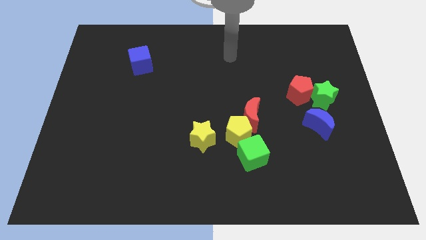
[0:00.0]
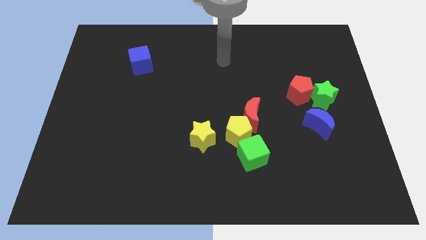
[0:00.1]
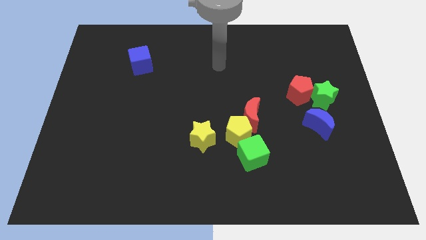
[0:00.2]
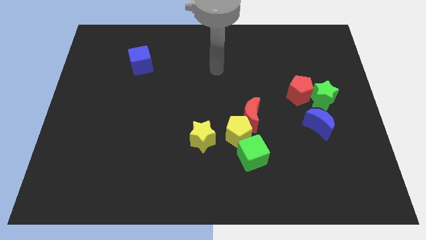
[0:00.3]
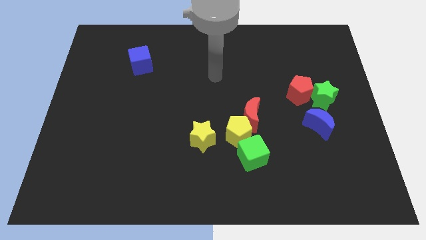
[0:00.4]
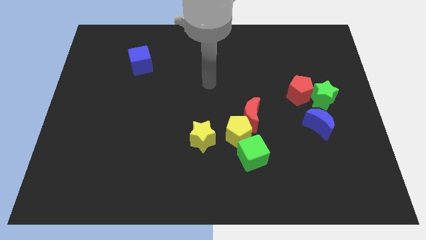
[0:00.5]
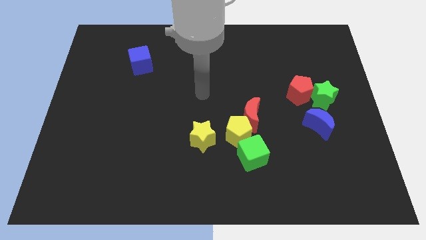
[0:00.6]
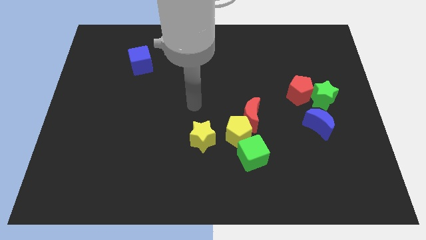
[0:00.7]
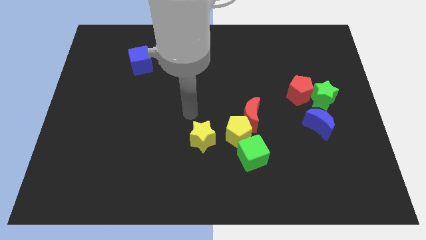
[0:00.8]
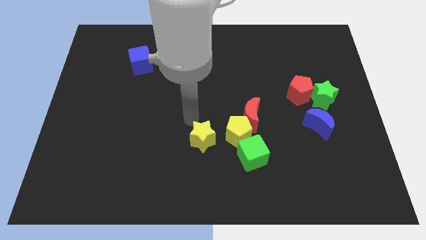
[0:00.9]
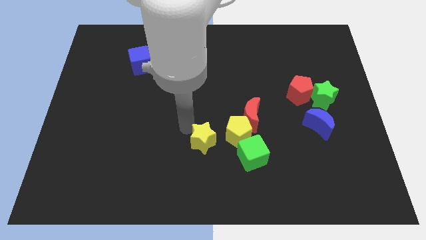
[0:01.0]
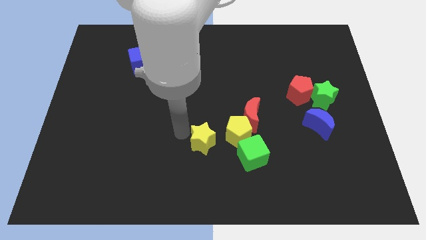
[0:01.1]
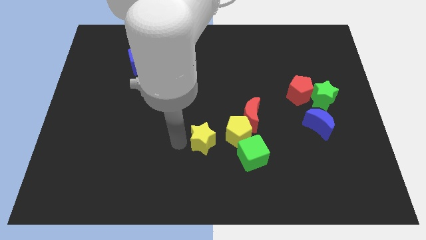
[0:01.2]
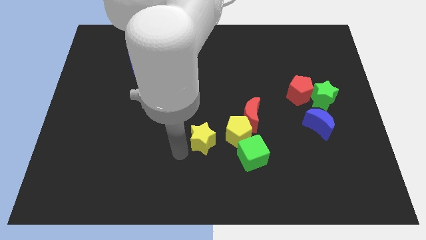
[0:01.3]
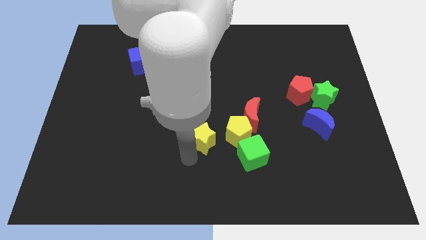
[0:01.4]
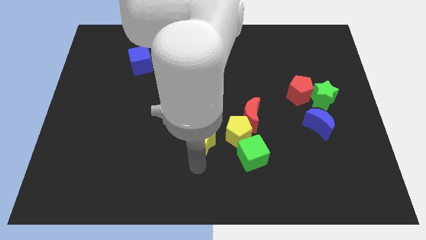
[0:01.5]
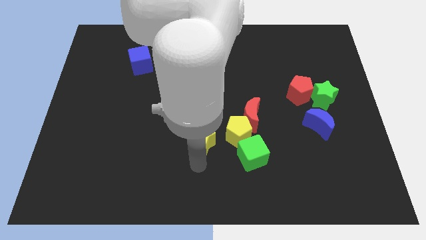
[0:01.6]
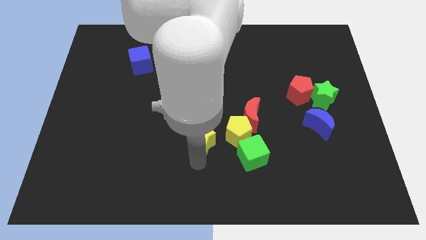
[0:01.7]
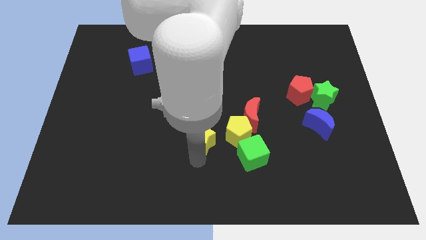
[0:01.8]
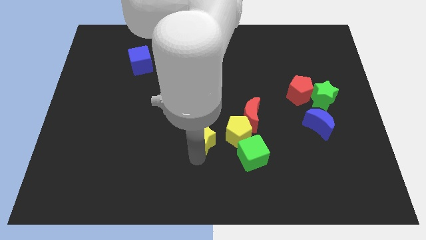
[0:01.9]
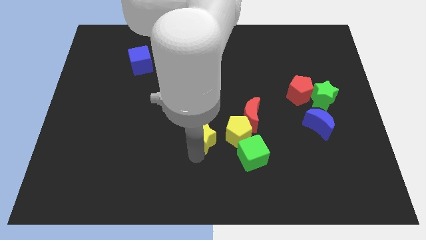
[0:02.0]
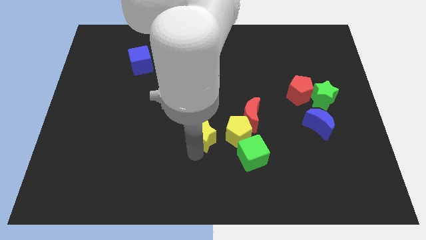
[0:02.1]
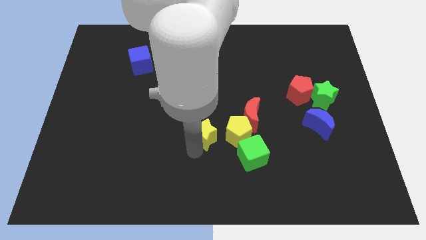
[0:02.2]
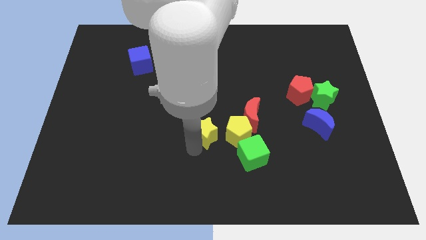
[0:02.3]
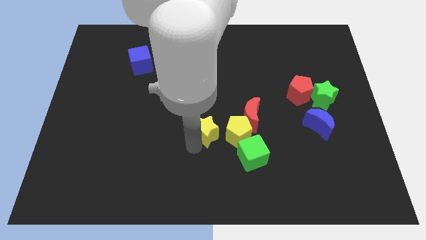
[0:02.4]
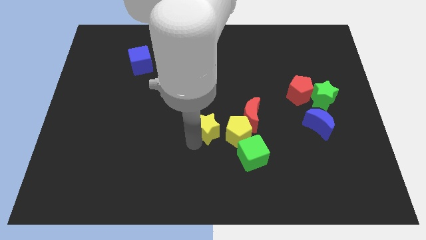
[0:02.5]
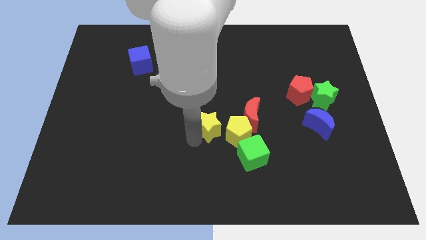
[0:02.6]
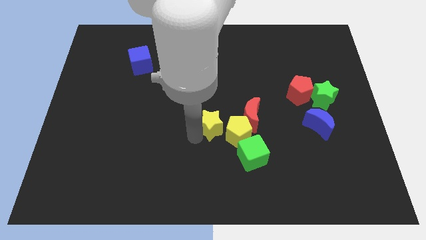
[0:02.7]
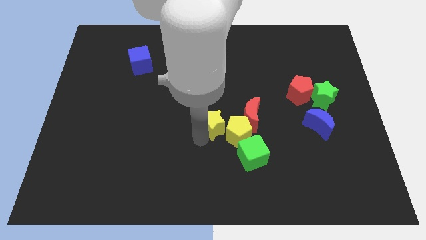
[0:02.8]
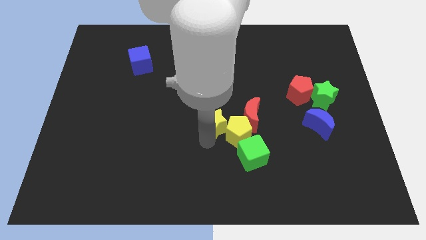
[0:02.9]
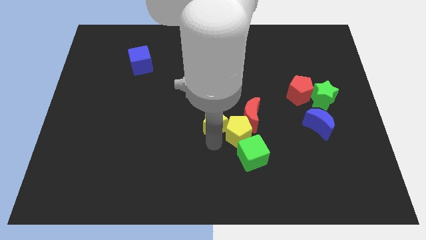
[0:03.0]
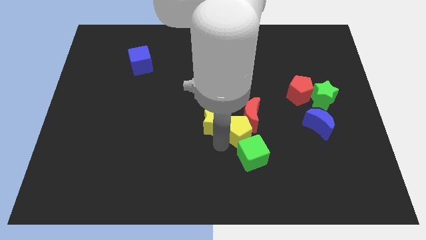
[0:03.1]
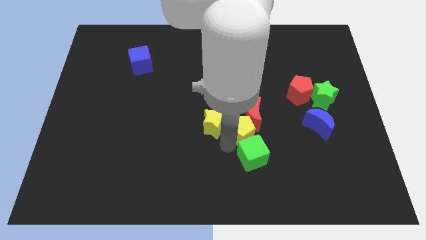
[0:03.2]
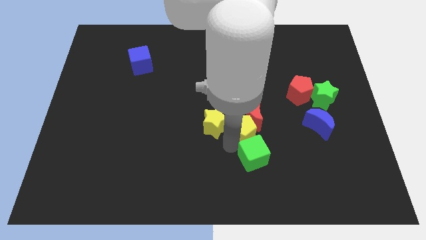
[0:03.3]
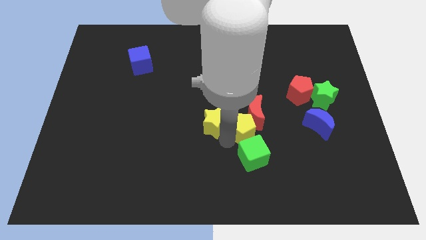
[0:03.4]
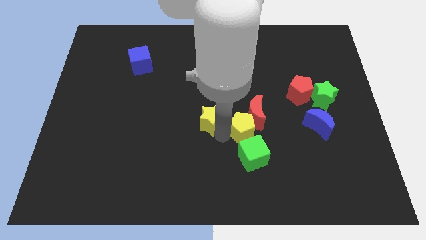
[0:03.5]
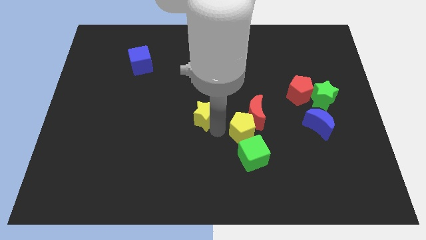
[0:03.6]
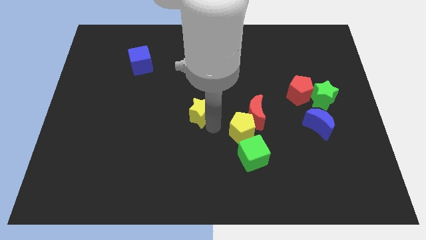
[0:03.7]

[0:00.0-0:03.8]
slightly push the yellow star upwards

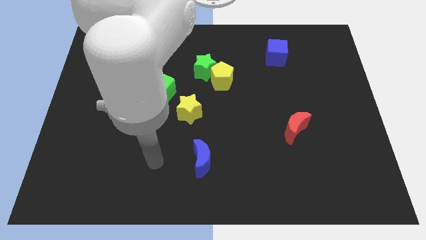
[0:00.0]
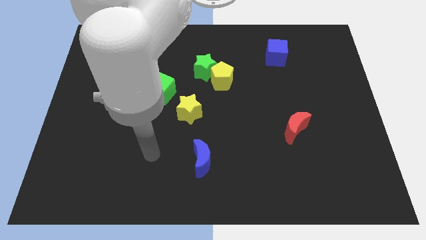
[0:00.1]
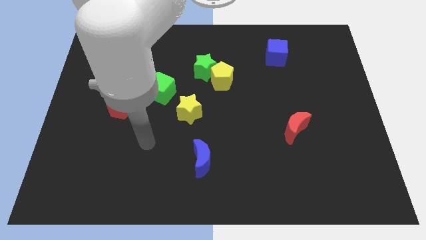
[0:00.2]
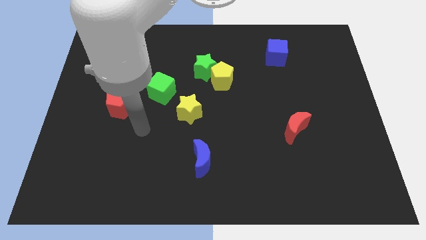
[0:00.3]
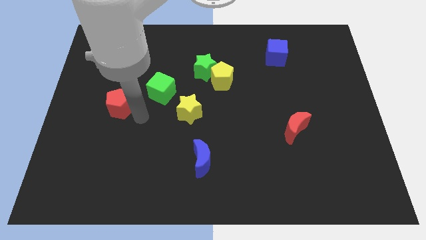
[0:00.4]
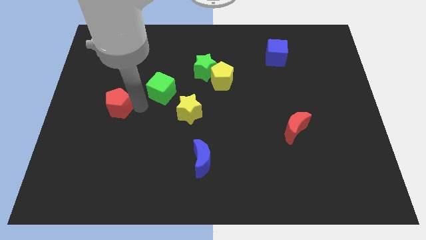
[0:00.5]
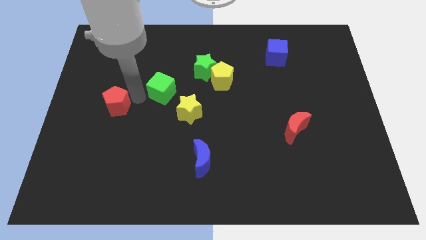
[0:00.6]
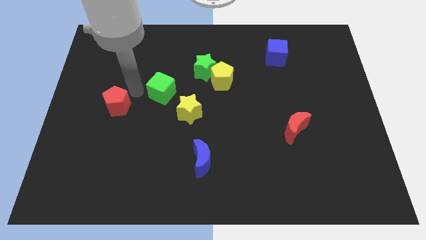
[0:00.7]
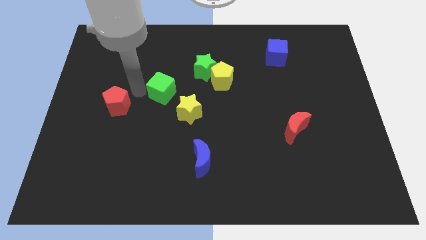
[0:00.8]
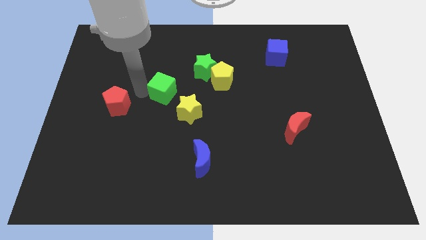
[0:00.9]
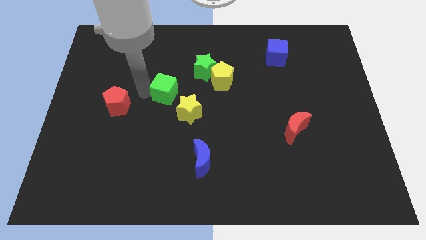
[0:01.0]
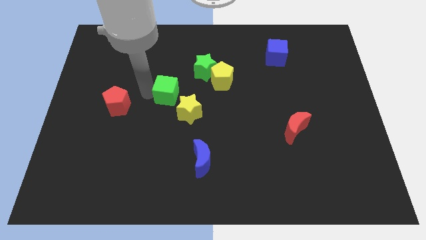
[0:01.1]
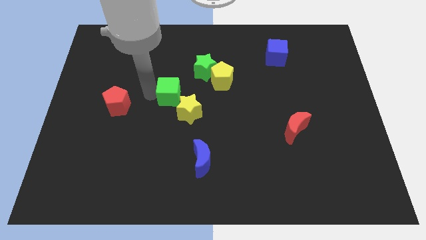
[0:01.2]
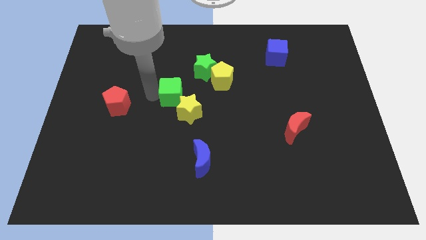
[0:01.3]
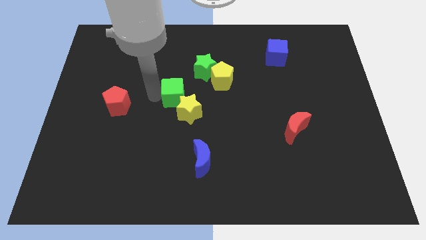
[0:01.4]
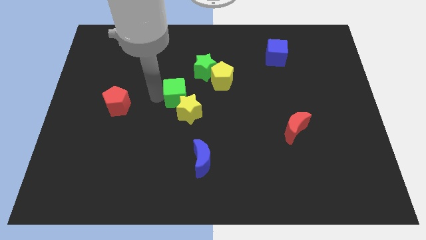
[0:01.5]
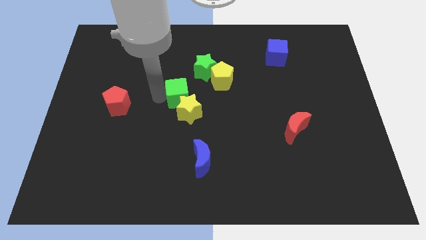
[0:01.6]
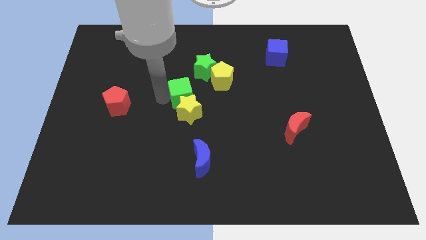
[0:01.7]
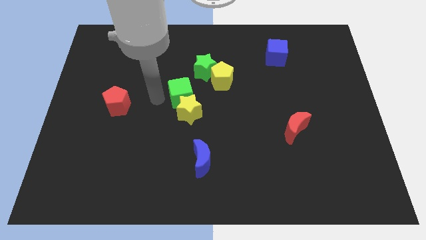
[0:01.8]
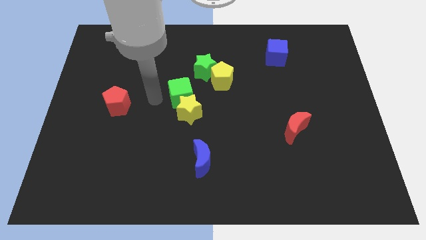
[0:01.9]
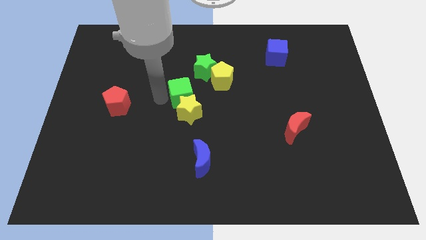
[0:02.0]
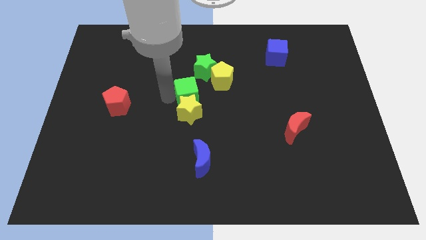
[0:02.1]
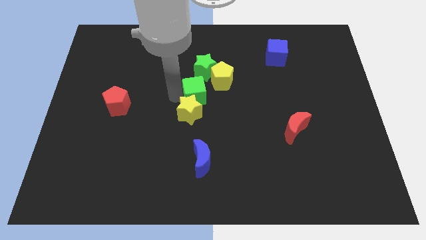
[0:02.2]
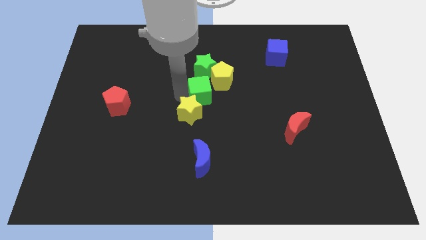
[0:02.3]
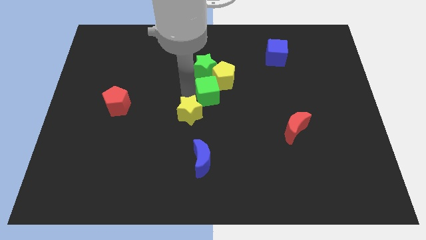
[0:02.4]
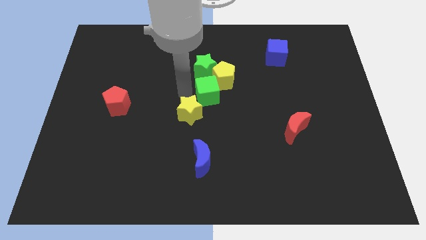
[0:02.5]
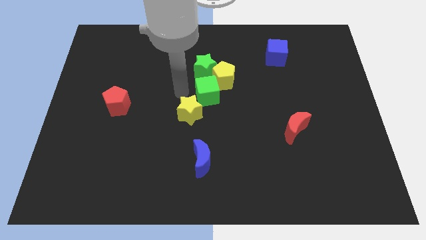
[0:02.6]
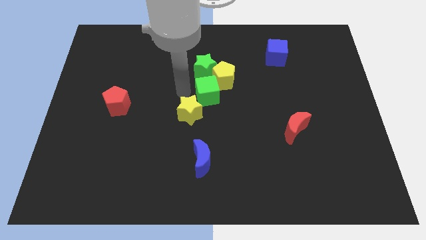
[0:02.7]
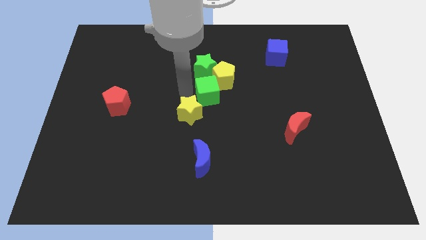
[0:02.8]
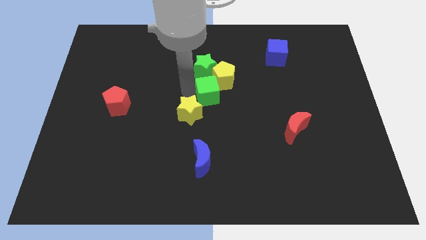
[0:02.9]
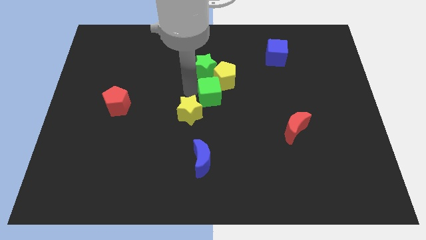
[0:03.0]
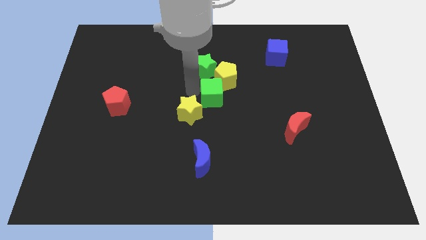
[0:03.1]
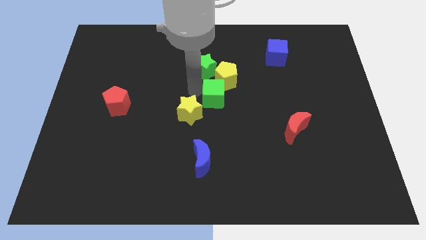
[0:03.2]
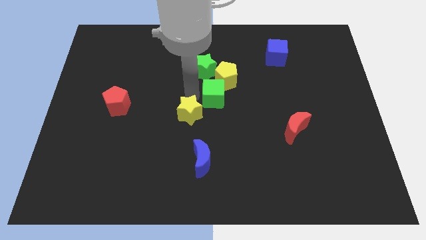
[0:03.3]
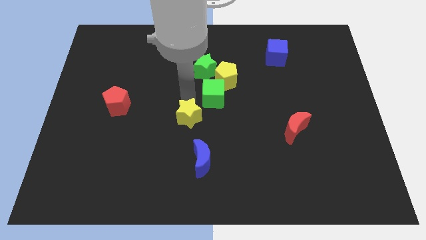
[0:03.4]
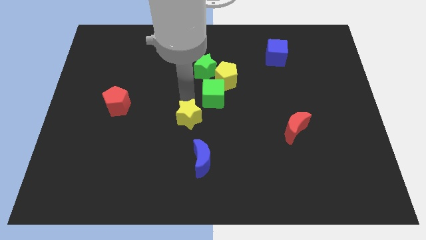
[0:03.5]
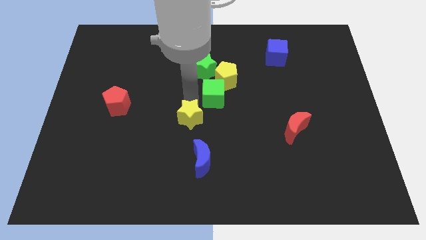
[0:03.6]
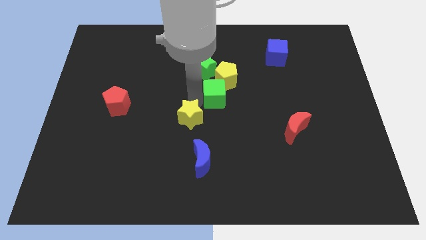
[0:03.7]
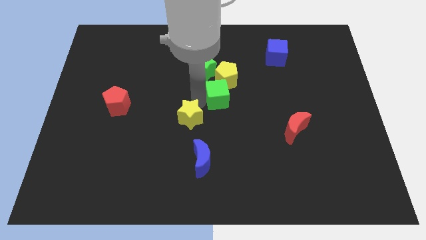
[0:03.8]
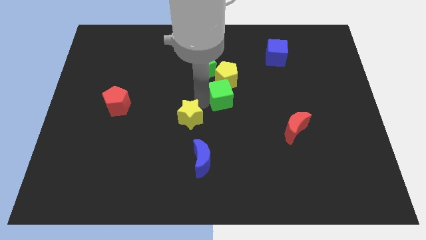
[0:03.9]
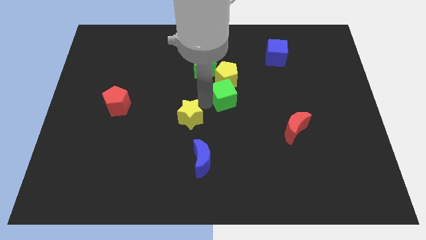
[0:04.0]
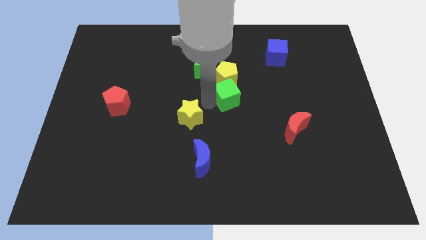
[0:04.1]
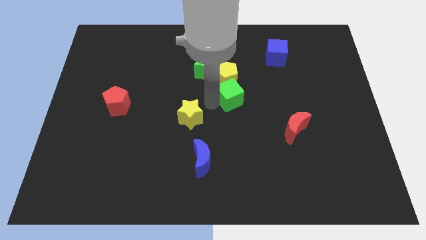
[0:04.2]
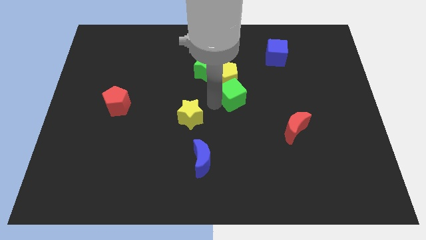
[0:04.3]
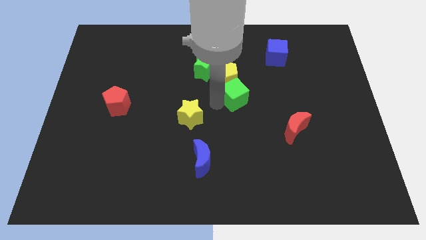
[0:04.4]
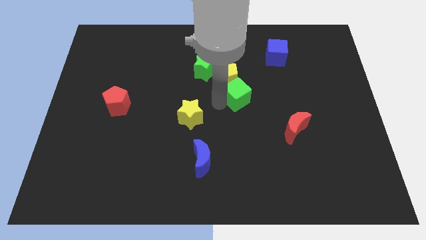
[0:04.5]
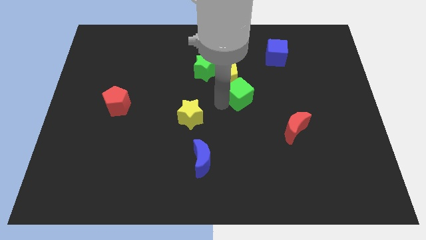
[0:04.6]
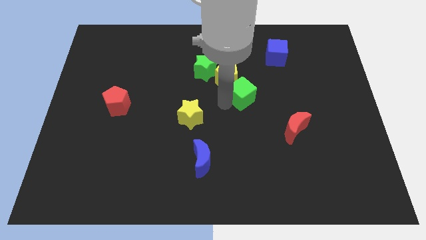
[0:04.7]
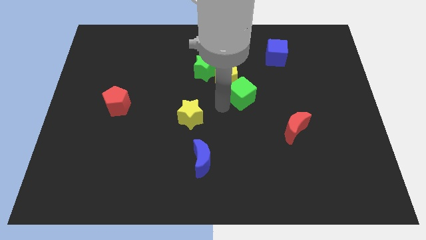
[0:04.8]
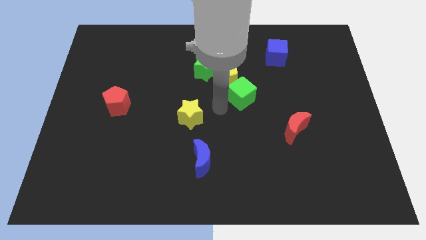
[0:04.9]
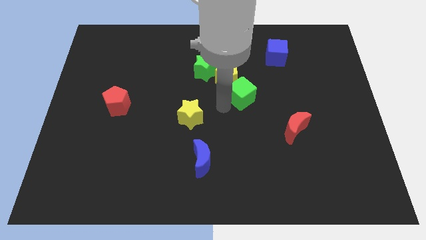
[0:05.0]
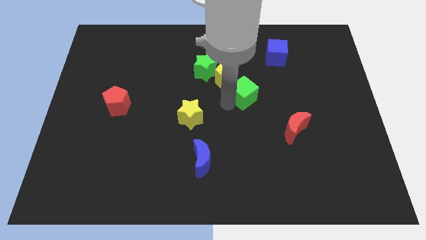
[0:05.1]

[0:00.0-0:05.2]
slide the green cube right
